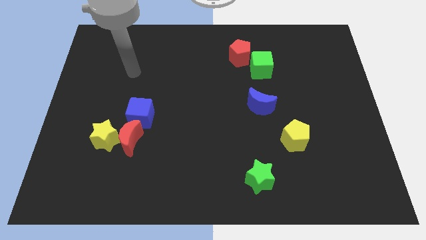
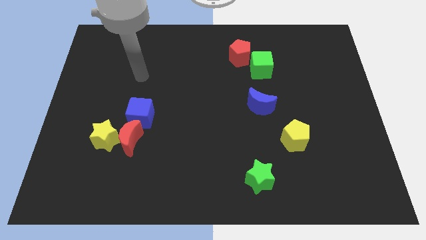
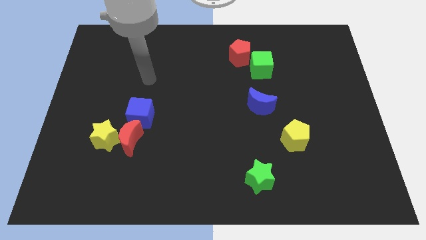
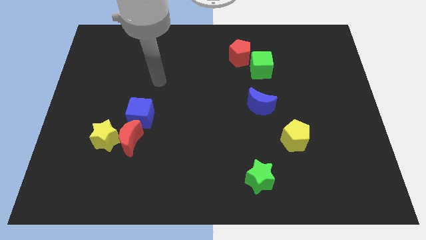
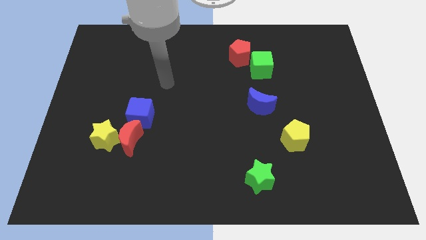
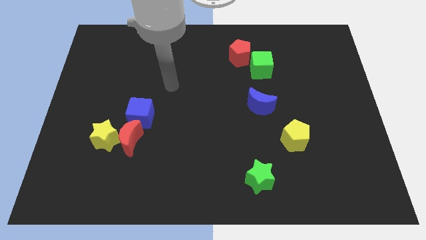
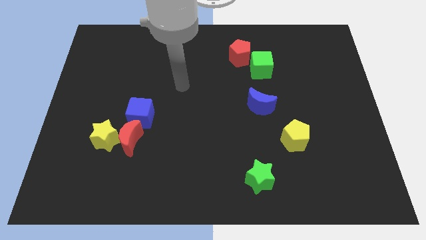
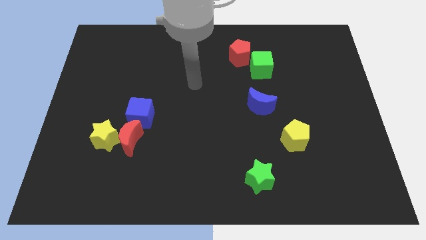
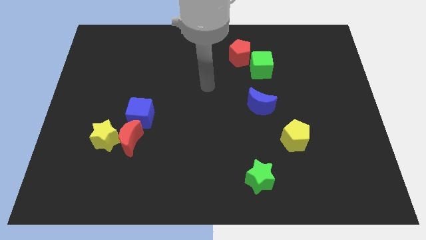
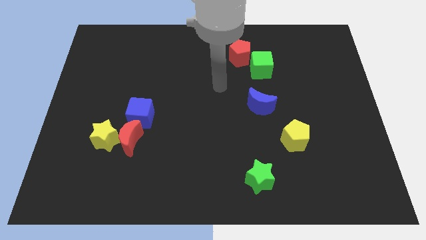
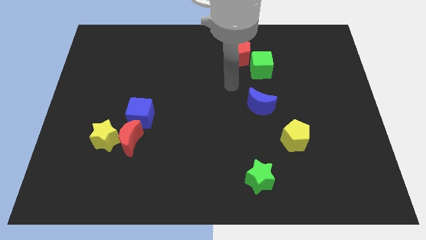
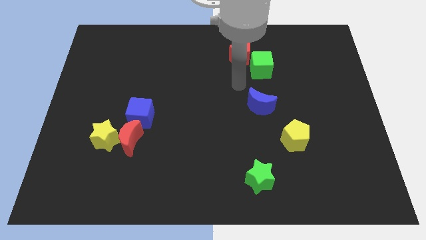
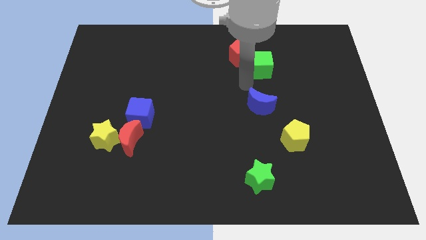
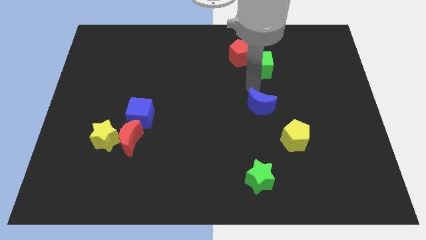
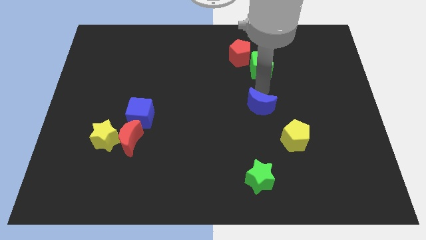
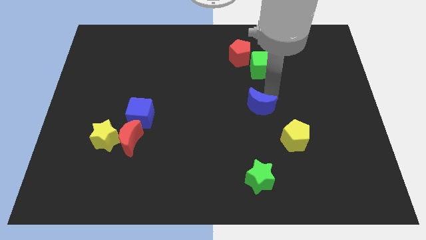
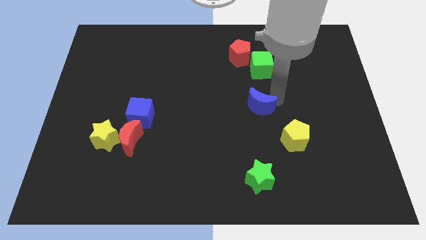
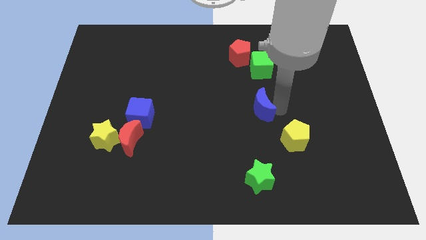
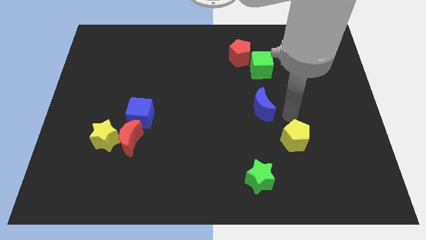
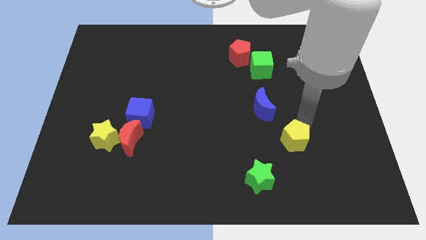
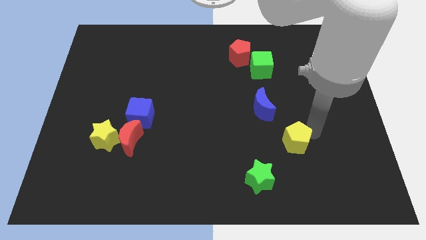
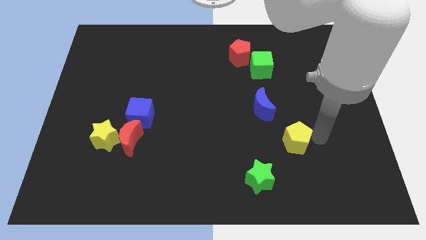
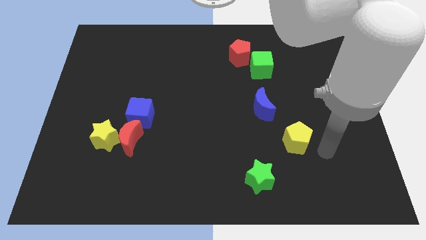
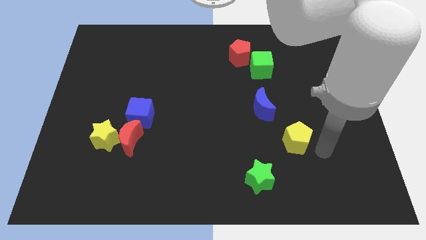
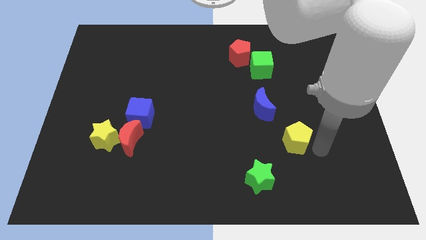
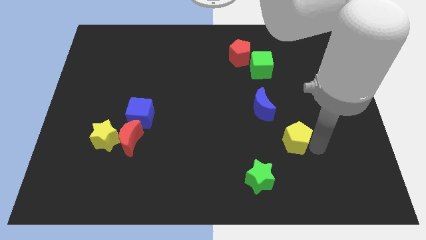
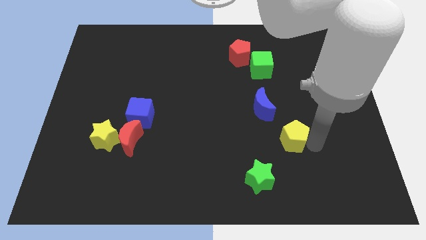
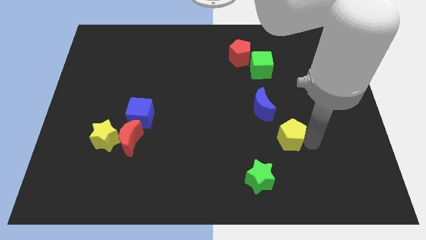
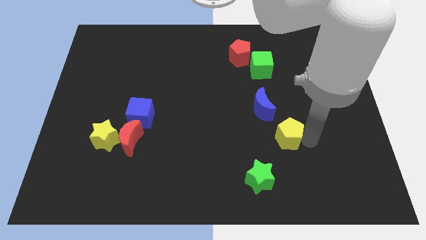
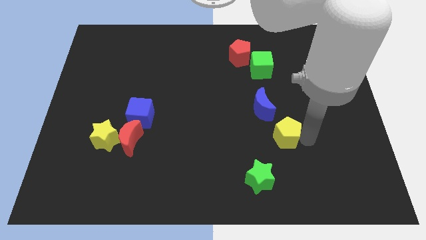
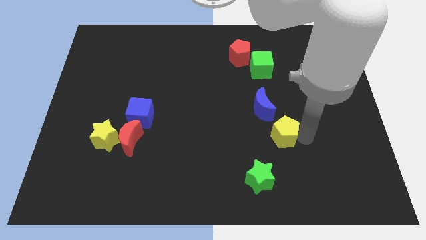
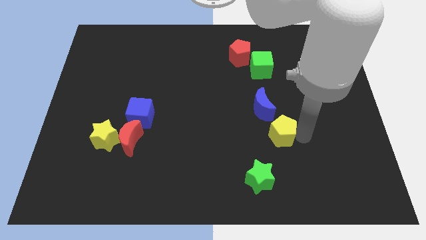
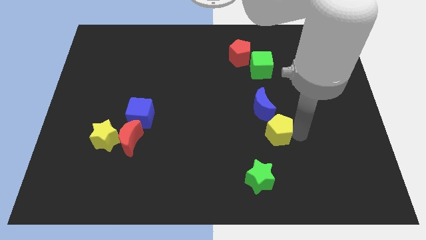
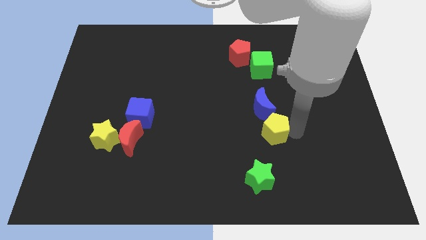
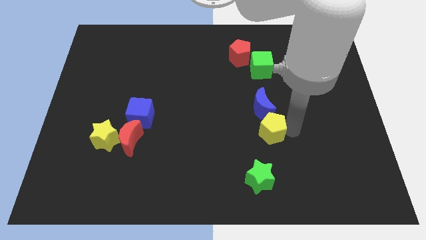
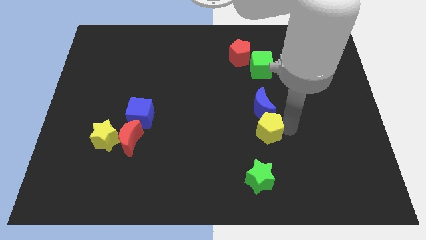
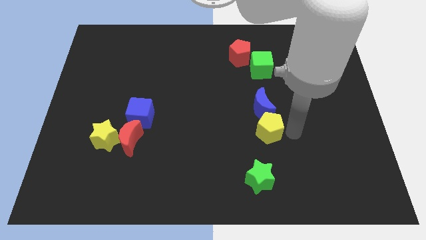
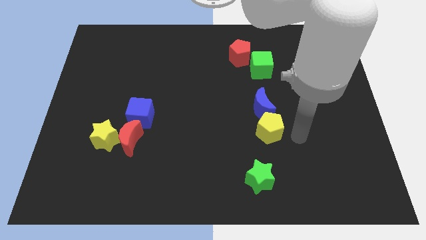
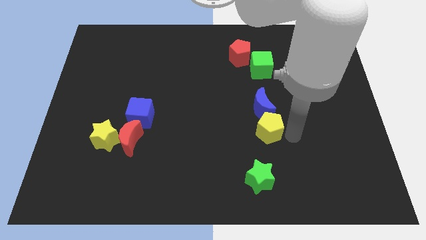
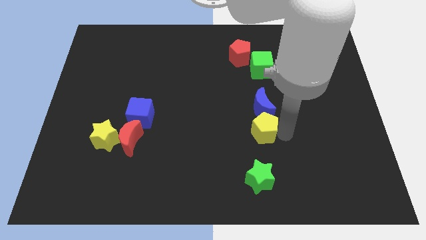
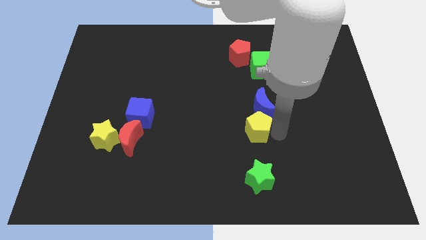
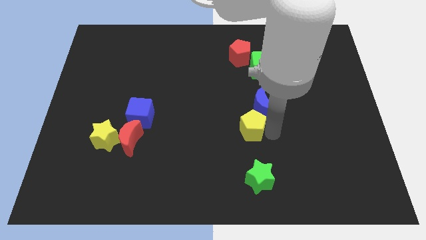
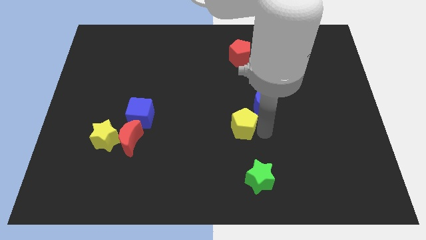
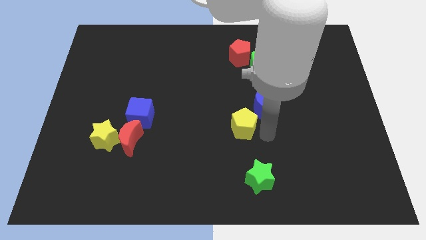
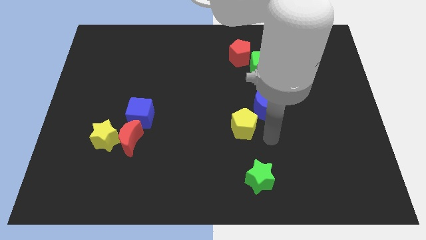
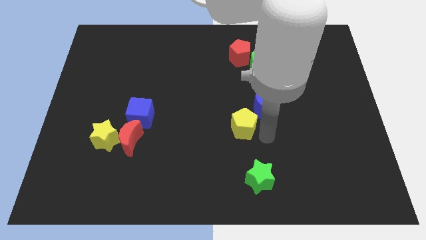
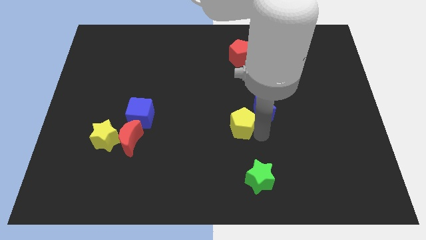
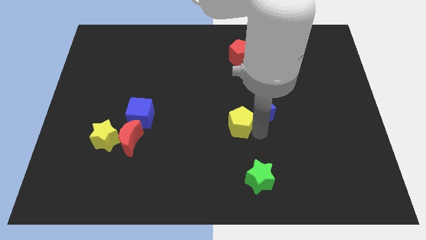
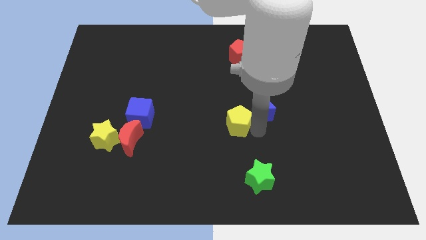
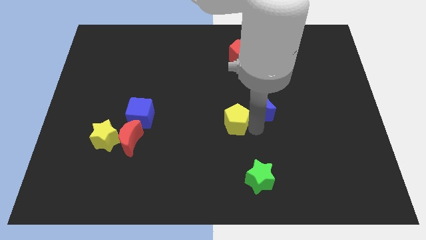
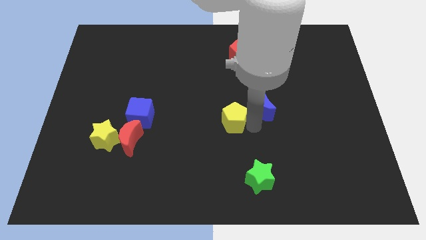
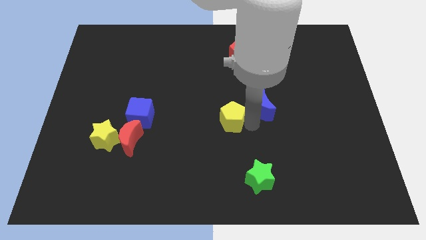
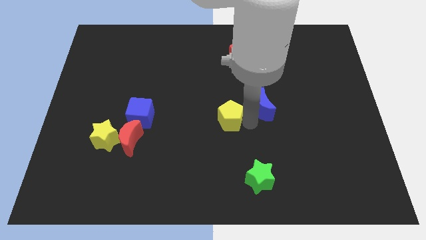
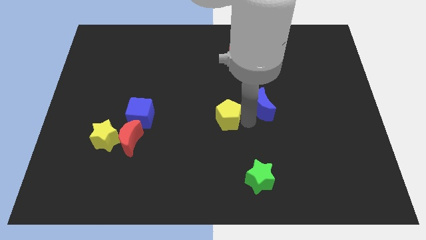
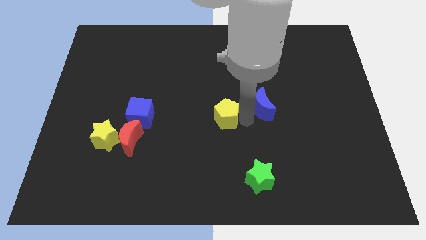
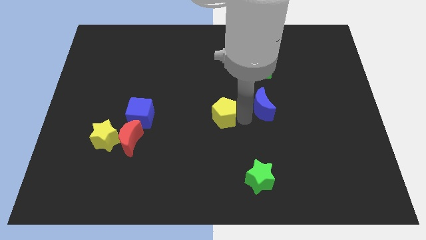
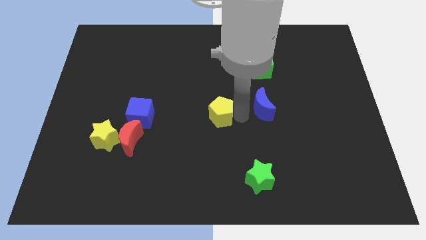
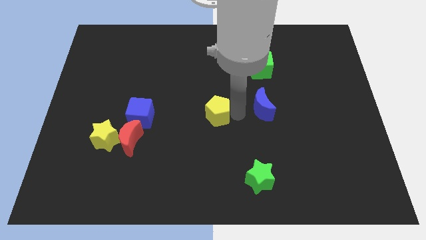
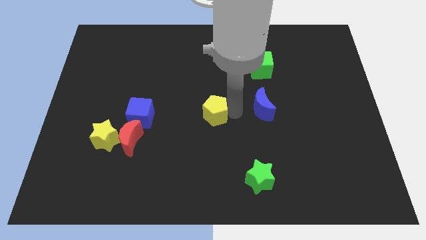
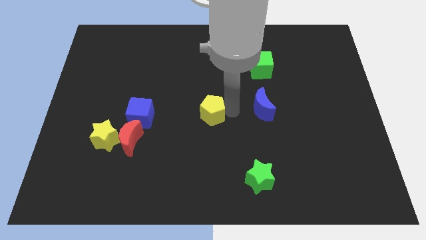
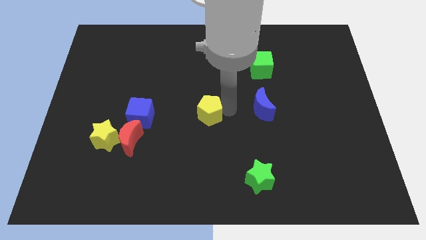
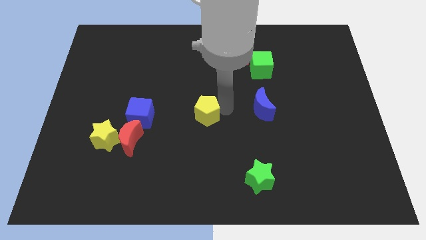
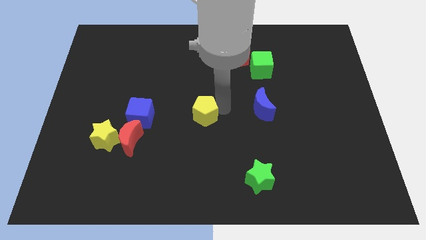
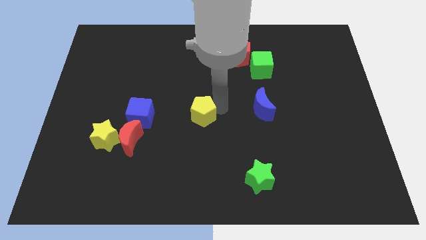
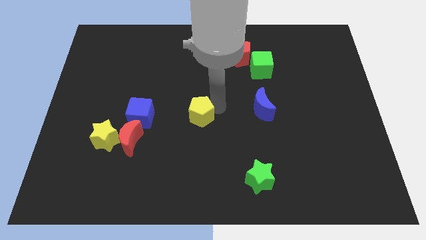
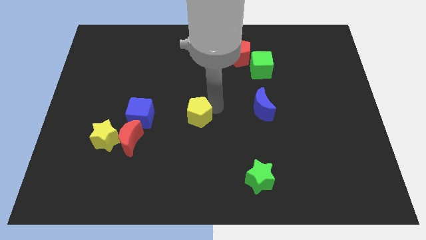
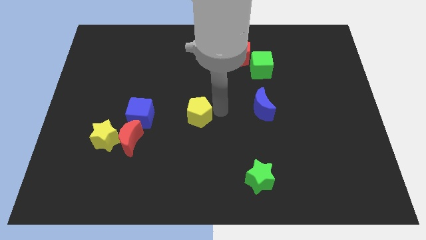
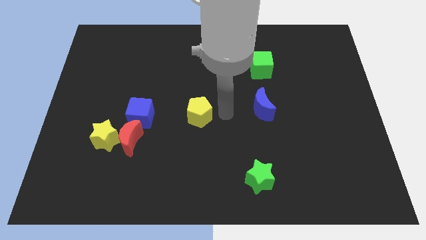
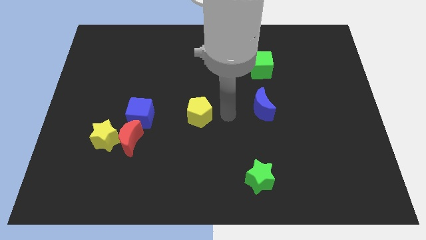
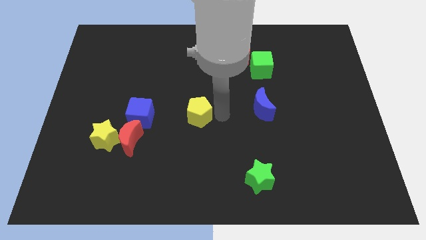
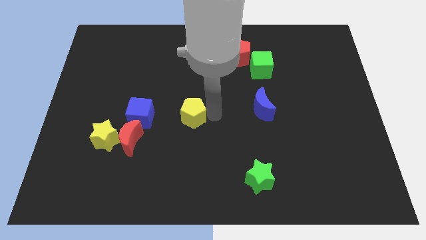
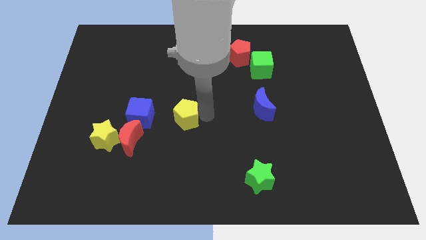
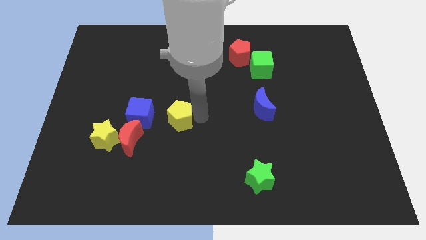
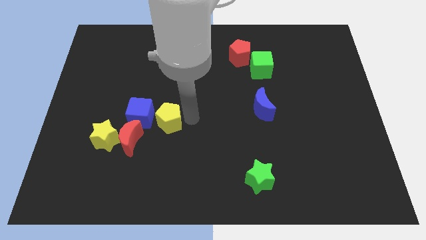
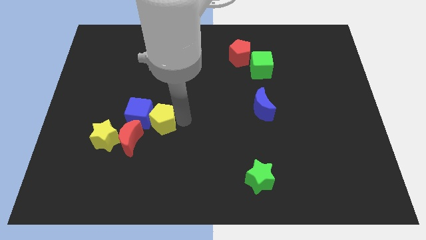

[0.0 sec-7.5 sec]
push the yellow pentagon to the blue cube
